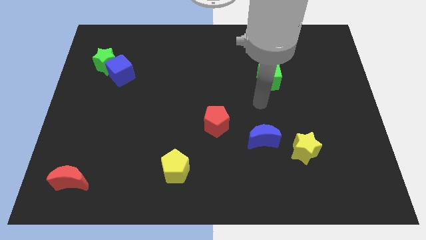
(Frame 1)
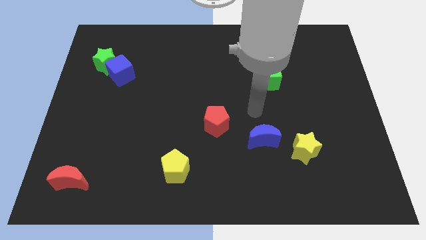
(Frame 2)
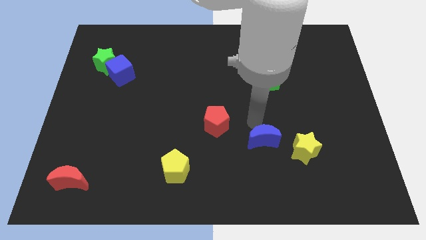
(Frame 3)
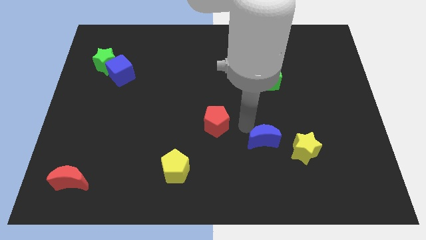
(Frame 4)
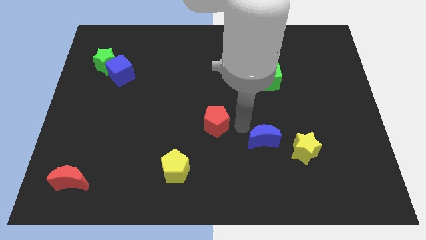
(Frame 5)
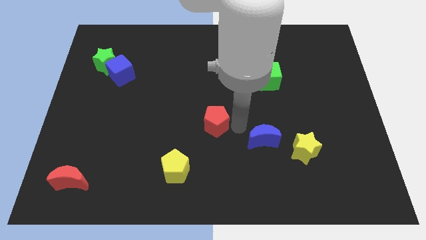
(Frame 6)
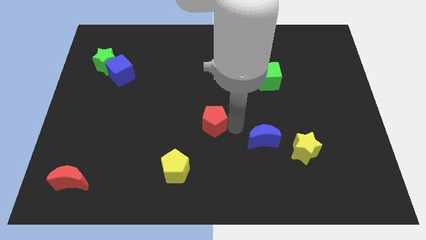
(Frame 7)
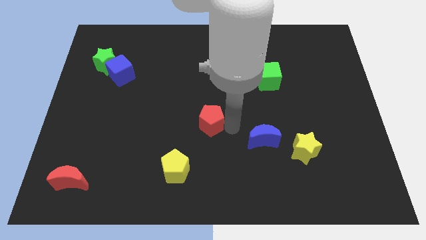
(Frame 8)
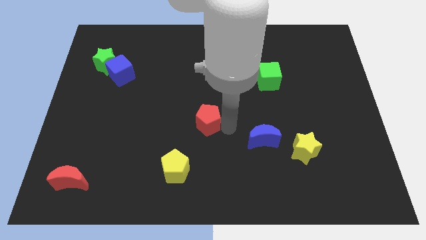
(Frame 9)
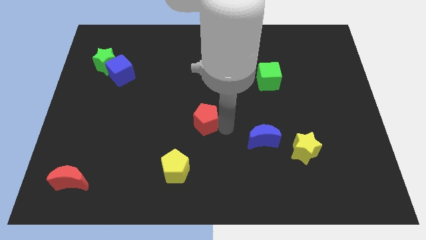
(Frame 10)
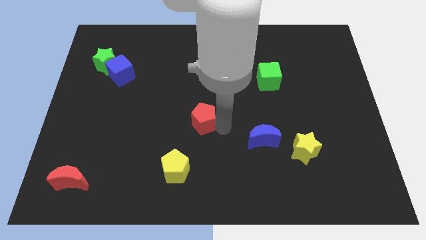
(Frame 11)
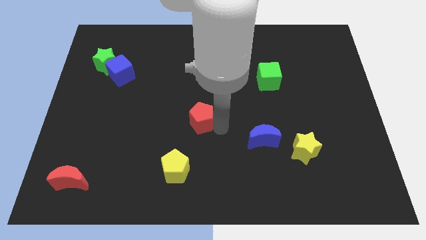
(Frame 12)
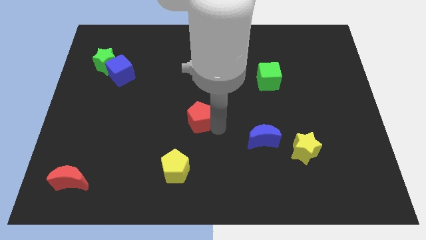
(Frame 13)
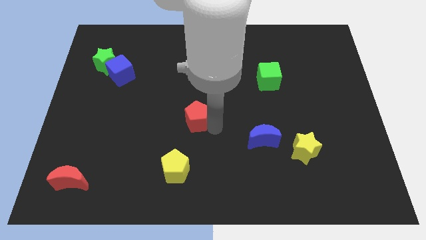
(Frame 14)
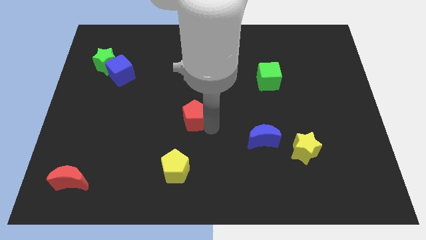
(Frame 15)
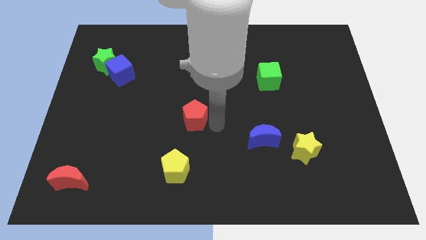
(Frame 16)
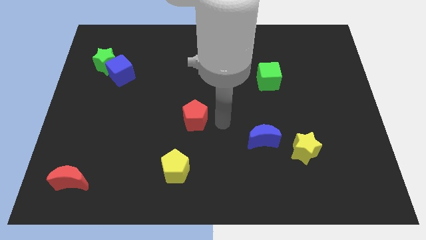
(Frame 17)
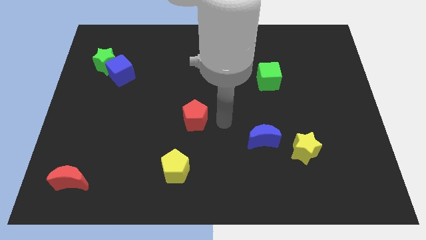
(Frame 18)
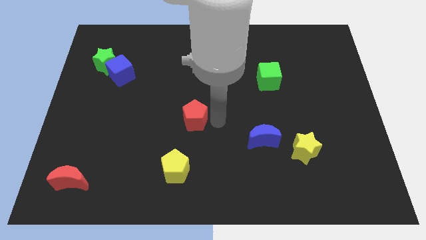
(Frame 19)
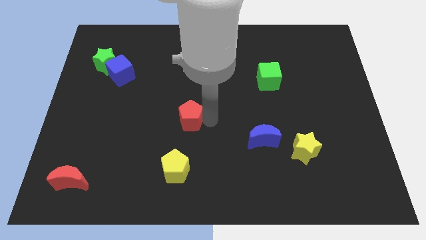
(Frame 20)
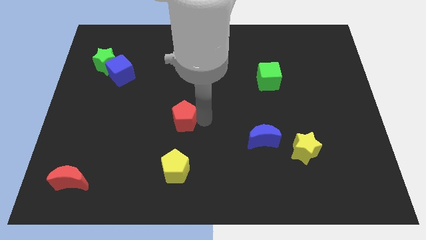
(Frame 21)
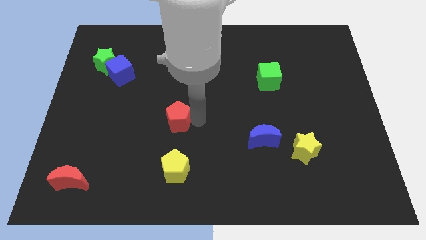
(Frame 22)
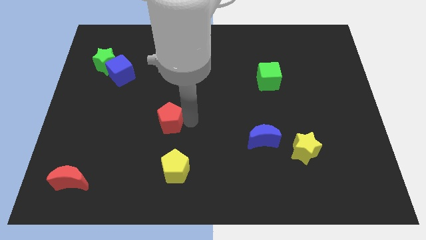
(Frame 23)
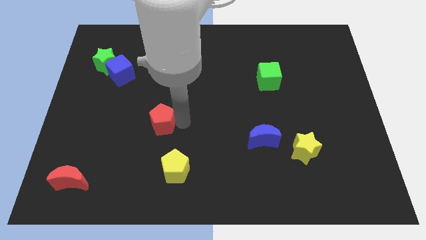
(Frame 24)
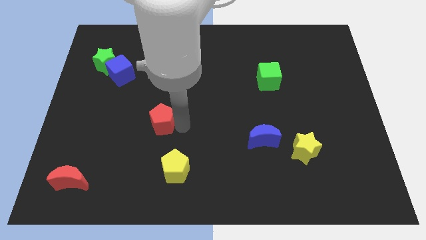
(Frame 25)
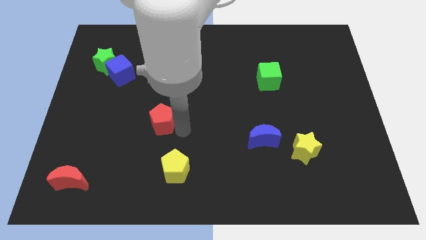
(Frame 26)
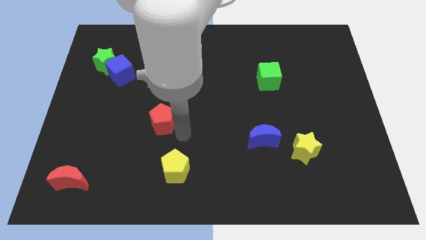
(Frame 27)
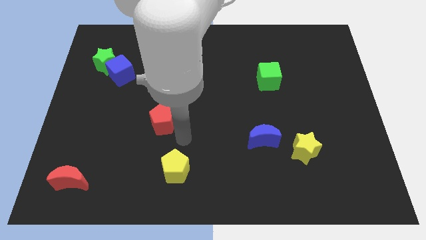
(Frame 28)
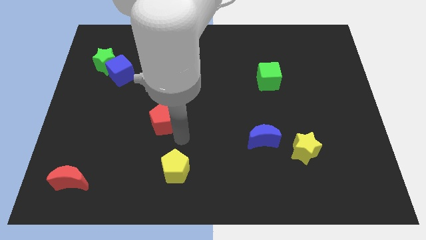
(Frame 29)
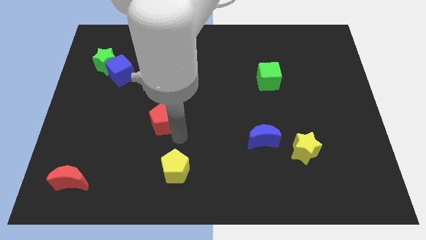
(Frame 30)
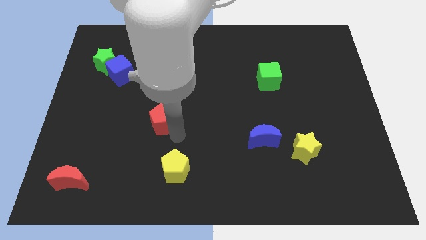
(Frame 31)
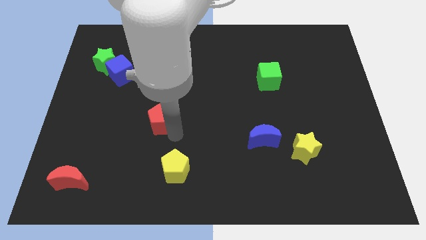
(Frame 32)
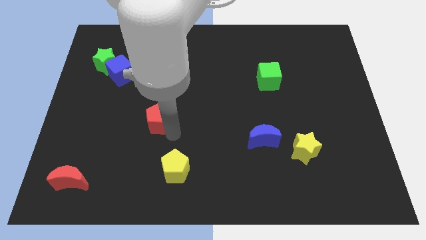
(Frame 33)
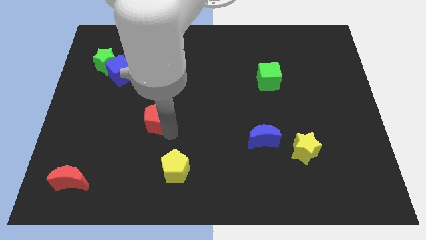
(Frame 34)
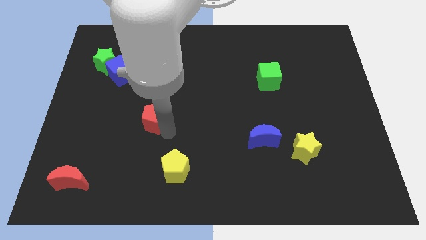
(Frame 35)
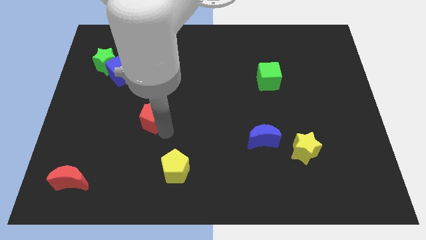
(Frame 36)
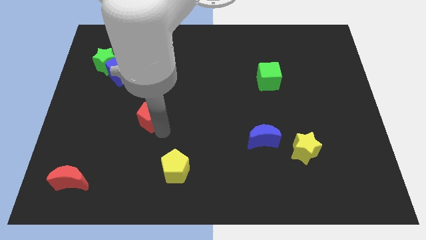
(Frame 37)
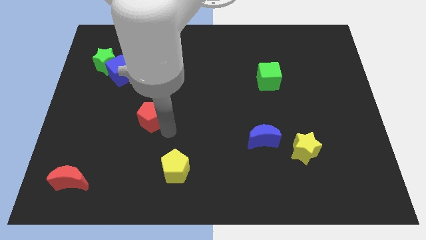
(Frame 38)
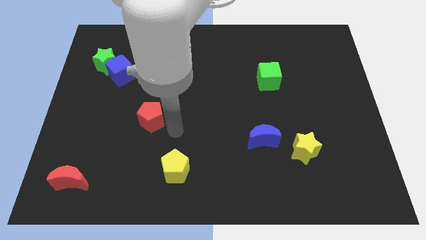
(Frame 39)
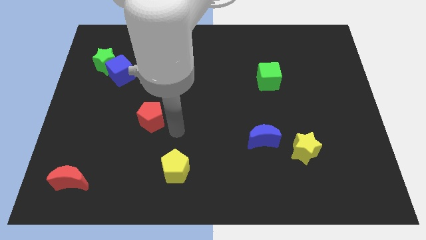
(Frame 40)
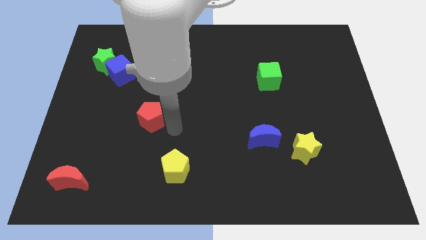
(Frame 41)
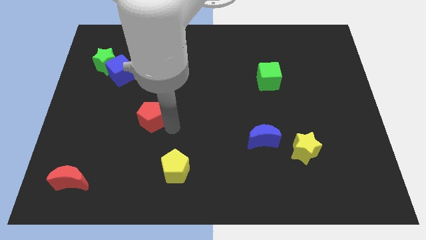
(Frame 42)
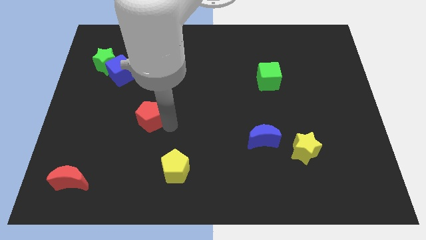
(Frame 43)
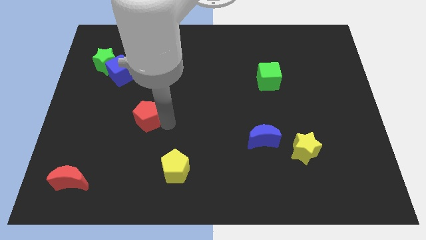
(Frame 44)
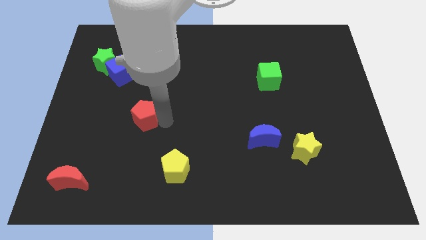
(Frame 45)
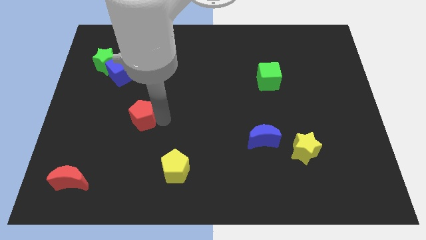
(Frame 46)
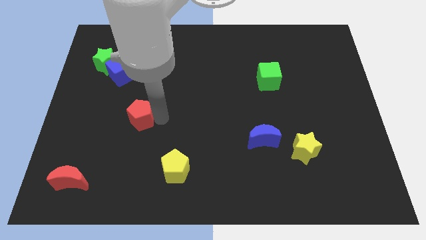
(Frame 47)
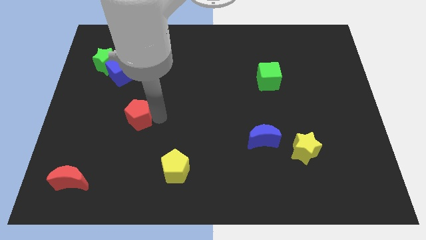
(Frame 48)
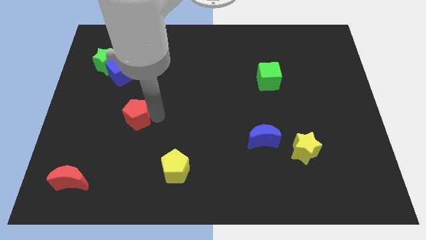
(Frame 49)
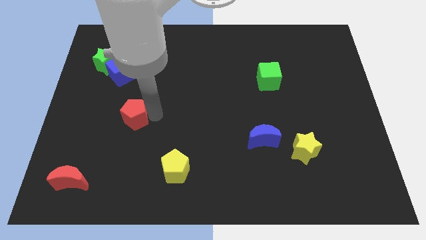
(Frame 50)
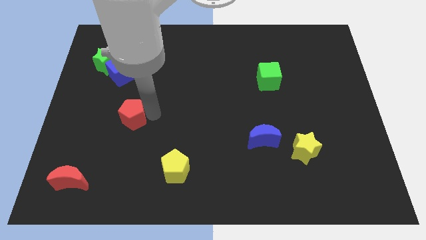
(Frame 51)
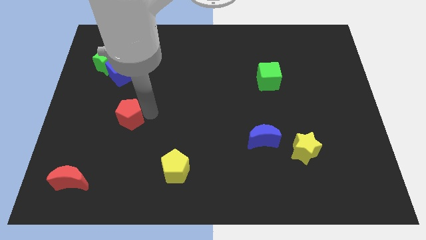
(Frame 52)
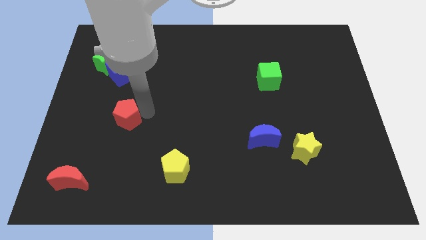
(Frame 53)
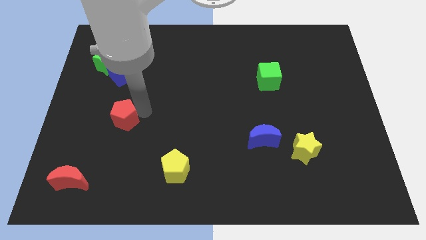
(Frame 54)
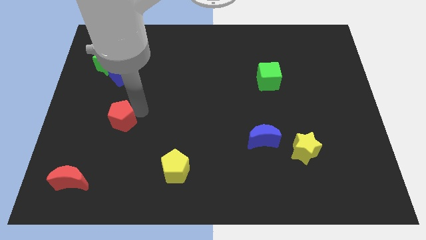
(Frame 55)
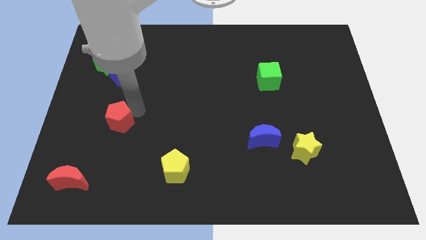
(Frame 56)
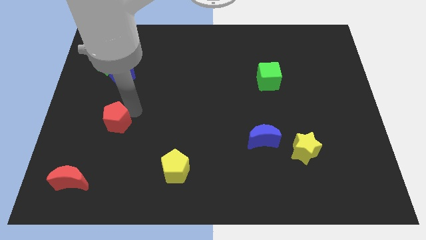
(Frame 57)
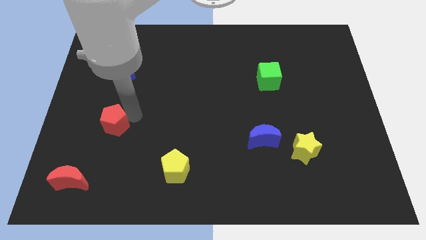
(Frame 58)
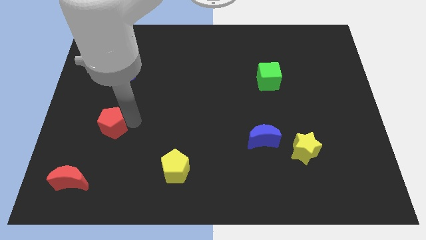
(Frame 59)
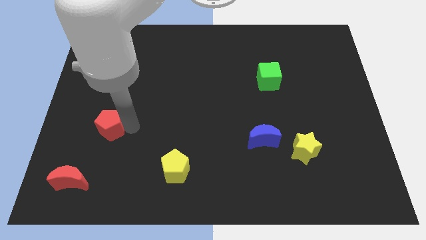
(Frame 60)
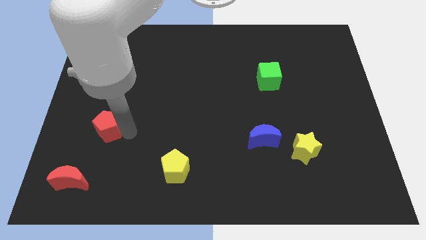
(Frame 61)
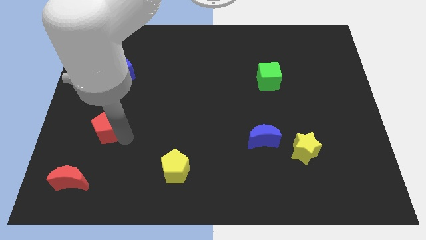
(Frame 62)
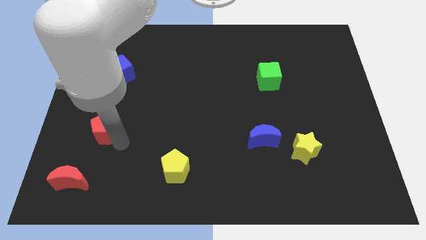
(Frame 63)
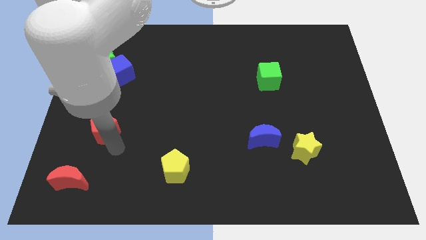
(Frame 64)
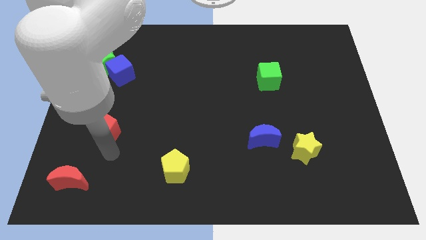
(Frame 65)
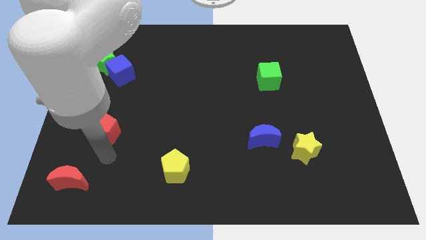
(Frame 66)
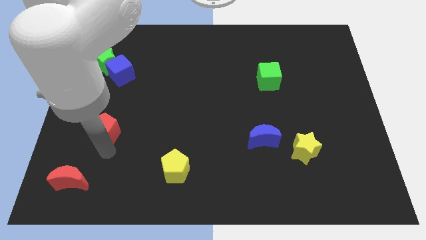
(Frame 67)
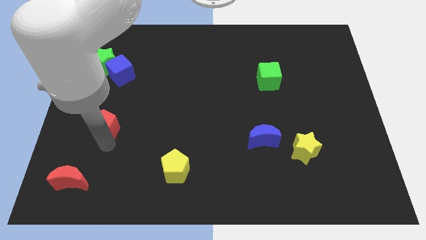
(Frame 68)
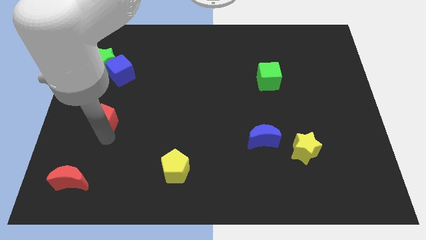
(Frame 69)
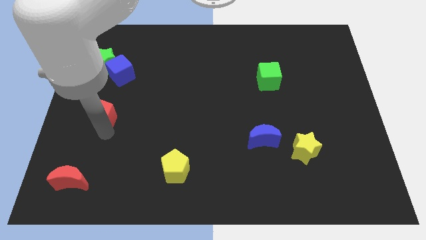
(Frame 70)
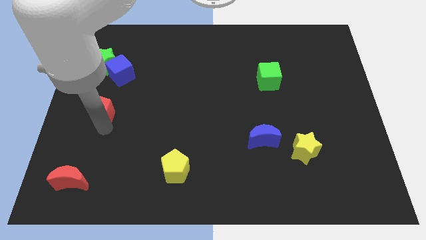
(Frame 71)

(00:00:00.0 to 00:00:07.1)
push the red pentagon to the left side of the board
